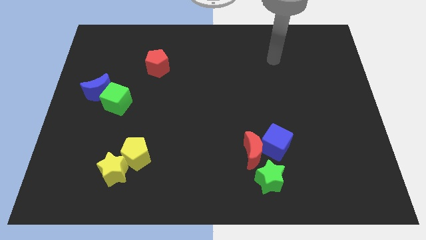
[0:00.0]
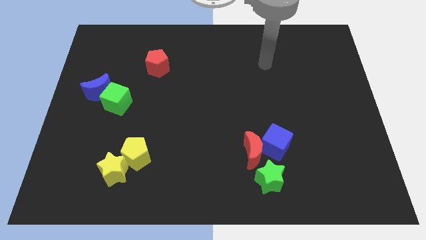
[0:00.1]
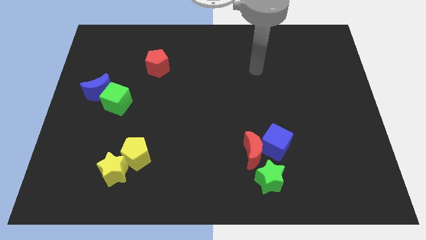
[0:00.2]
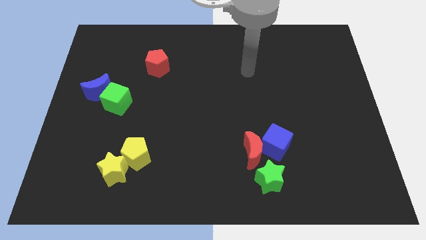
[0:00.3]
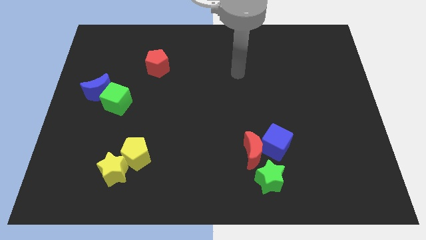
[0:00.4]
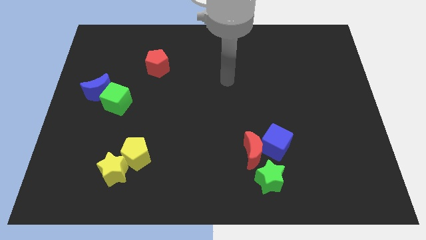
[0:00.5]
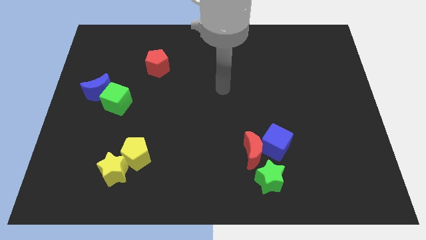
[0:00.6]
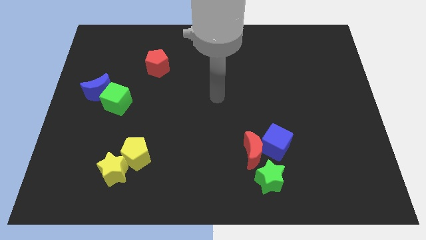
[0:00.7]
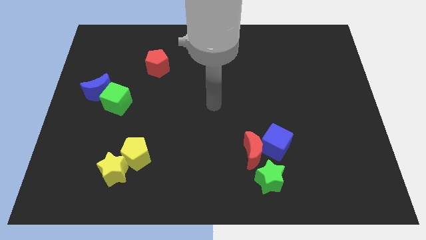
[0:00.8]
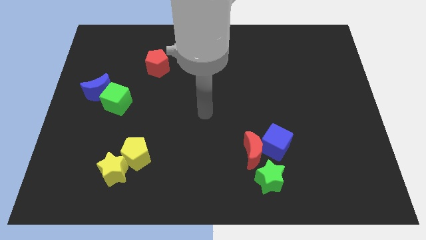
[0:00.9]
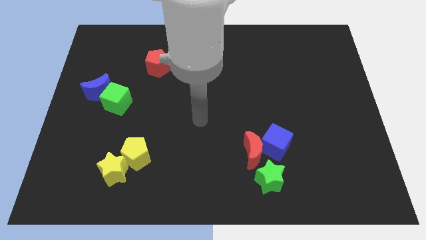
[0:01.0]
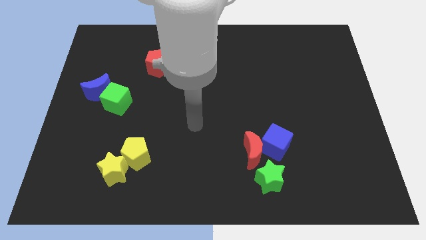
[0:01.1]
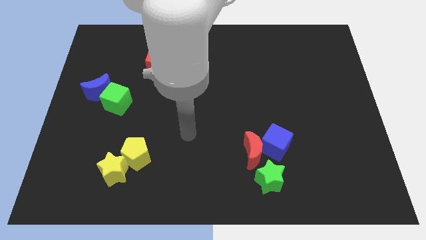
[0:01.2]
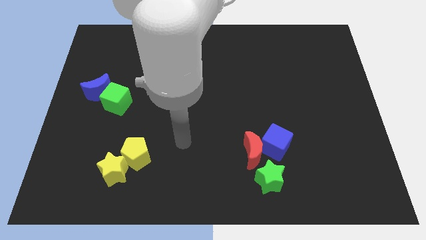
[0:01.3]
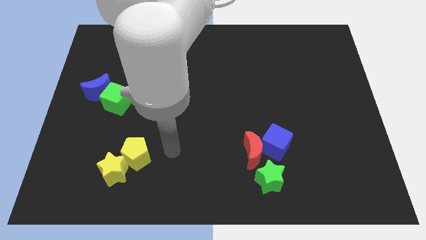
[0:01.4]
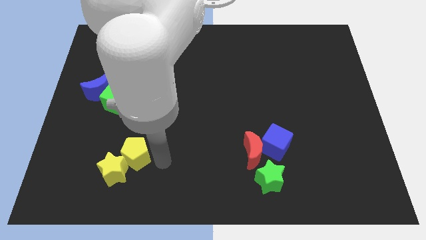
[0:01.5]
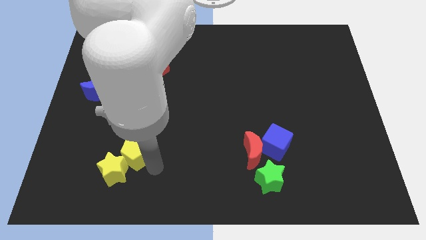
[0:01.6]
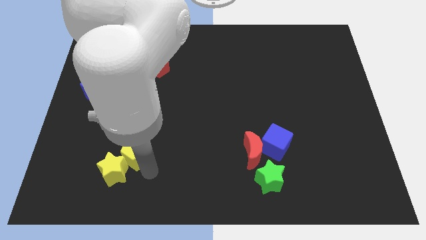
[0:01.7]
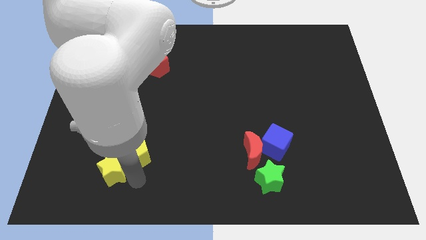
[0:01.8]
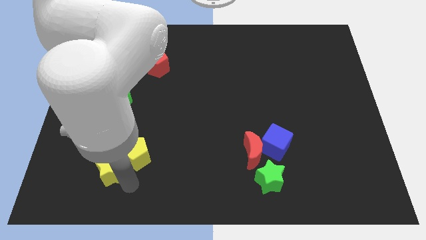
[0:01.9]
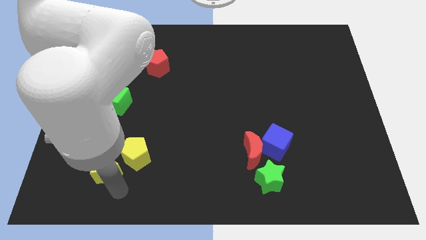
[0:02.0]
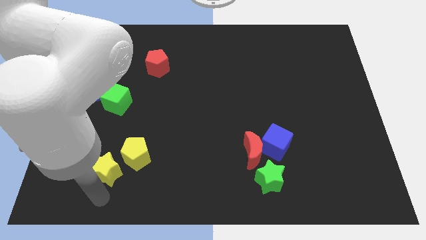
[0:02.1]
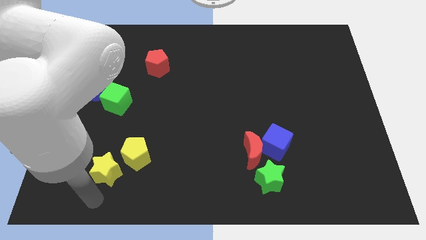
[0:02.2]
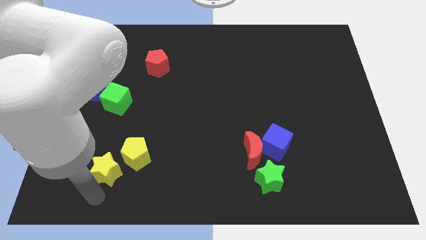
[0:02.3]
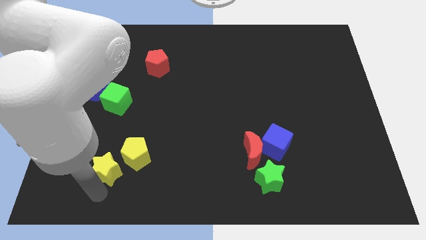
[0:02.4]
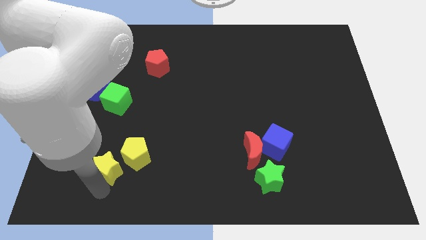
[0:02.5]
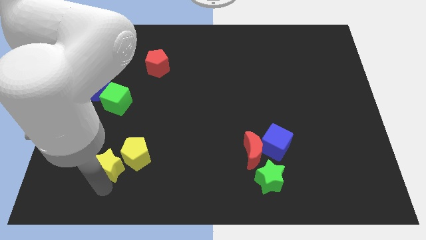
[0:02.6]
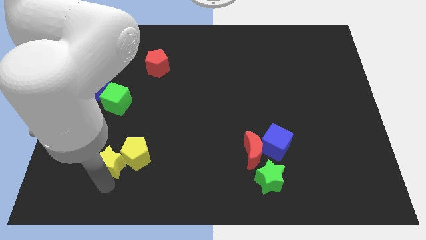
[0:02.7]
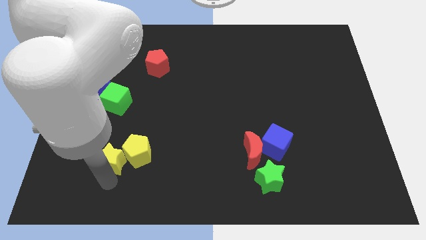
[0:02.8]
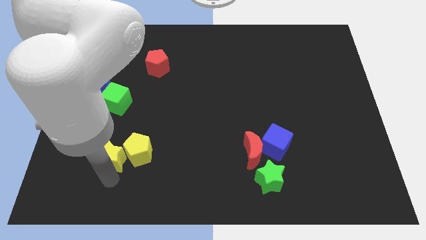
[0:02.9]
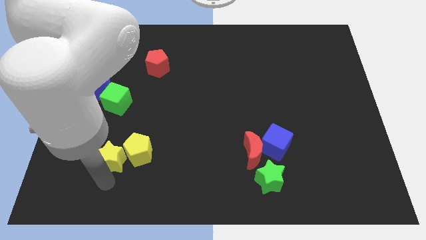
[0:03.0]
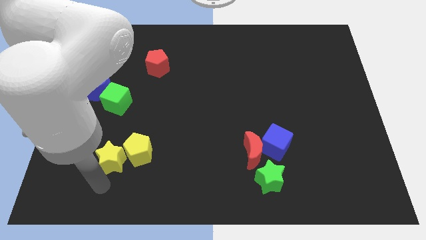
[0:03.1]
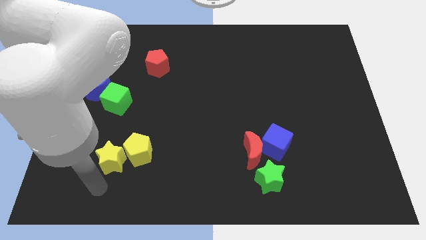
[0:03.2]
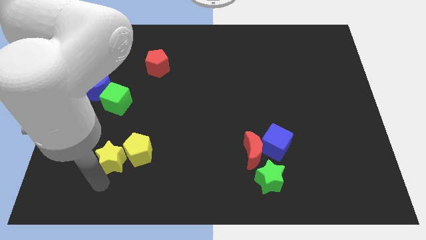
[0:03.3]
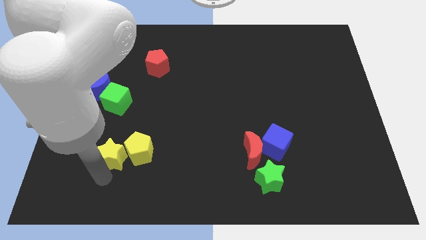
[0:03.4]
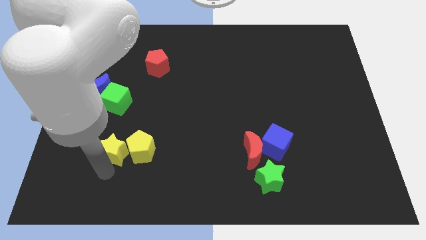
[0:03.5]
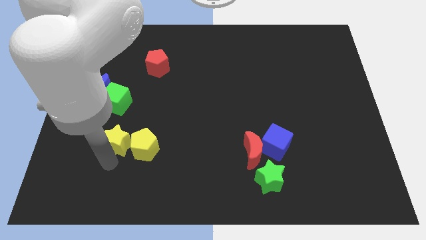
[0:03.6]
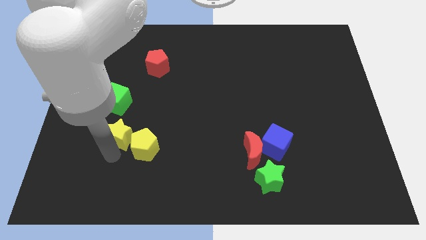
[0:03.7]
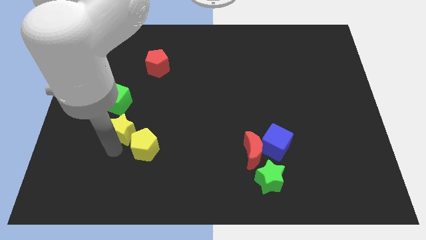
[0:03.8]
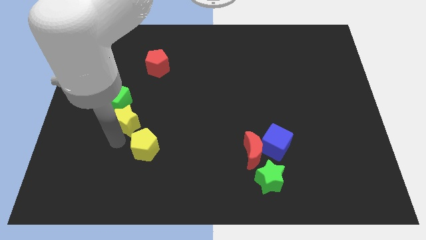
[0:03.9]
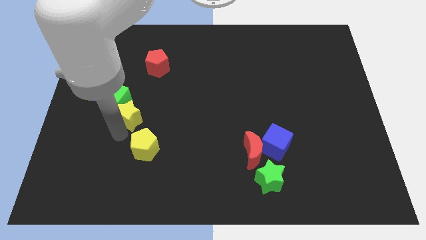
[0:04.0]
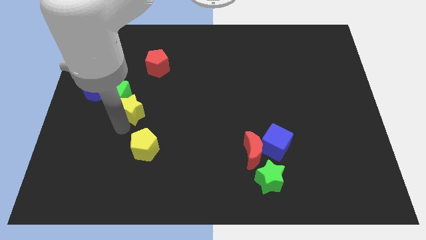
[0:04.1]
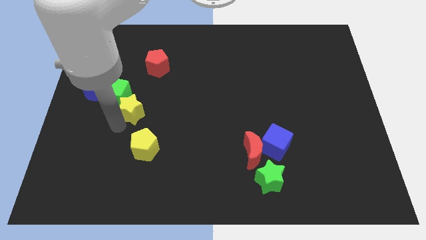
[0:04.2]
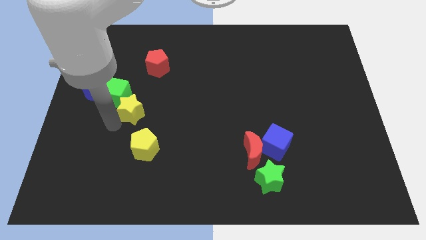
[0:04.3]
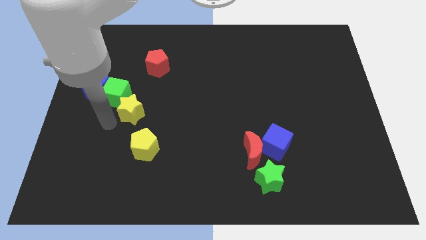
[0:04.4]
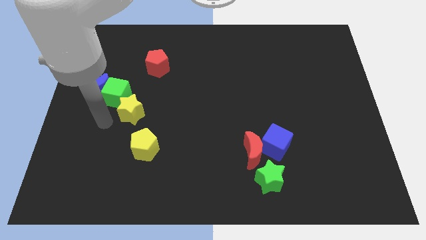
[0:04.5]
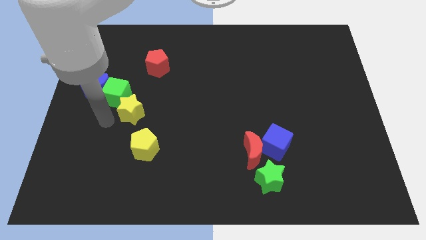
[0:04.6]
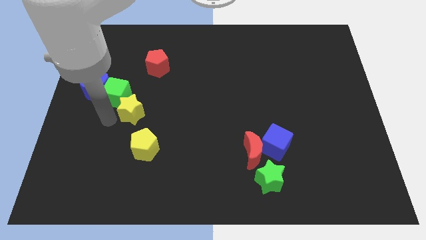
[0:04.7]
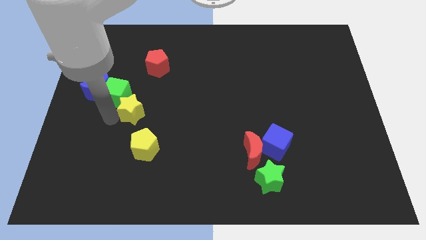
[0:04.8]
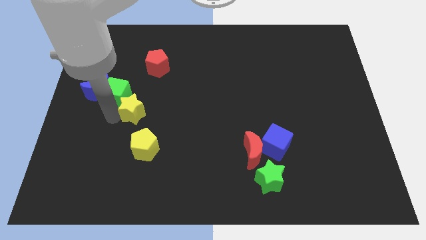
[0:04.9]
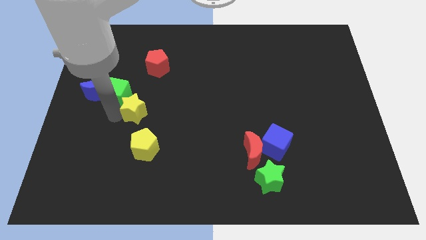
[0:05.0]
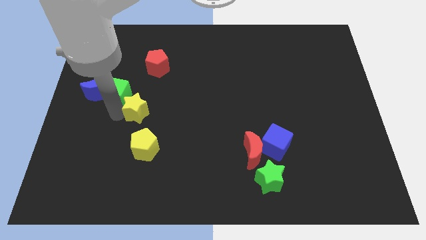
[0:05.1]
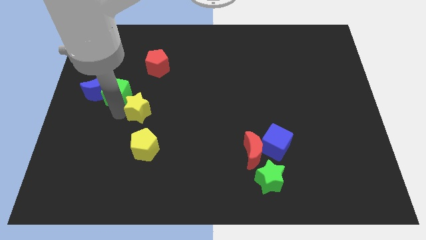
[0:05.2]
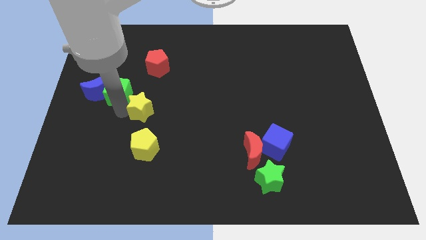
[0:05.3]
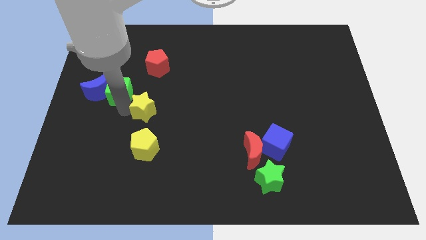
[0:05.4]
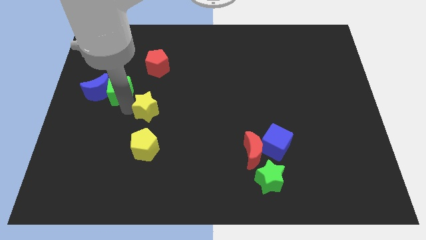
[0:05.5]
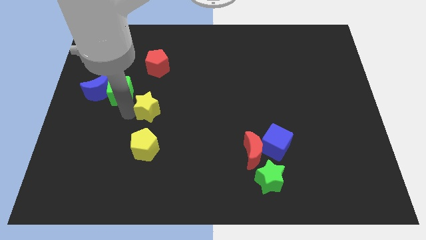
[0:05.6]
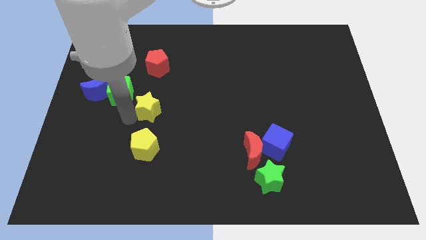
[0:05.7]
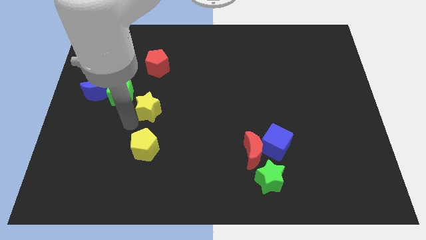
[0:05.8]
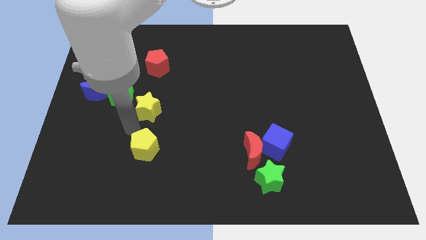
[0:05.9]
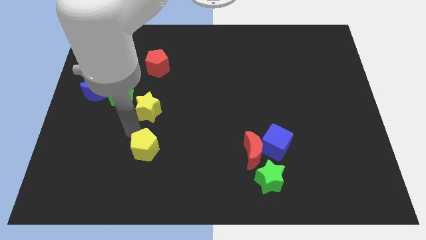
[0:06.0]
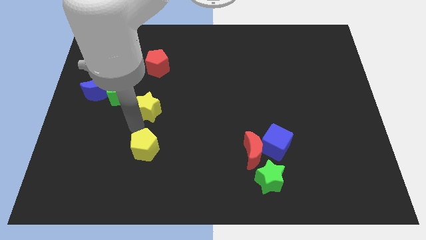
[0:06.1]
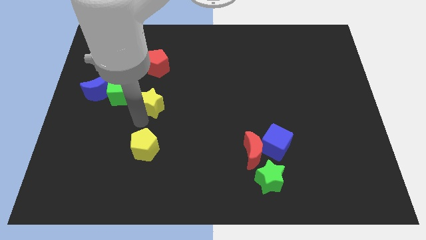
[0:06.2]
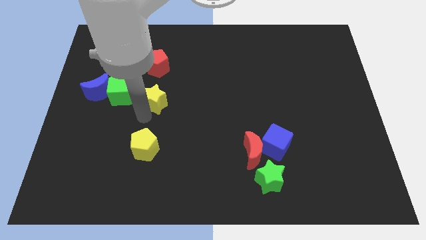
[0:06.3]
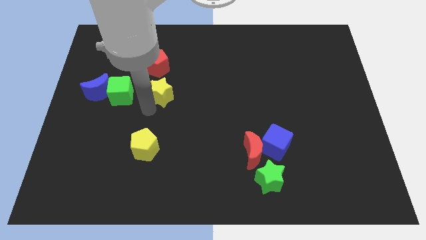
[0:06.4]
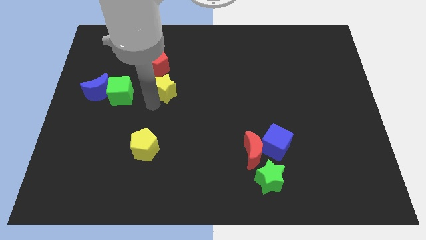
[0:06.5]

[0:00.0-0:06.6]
push the yellow star to the bottom right side of the red pentagon
